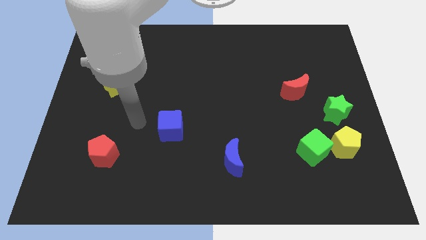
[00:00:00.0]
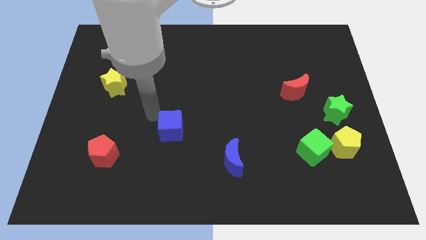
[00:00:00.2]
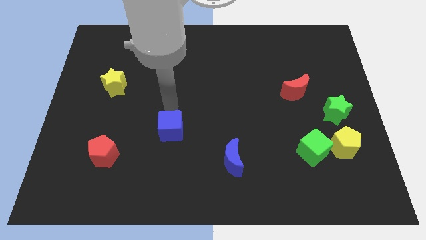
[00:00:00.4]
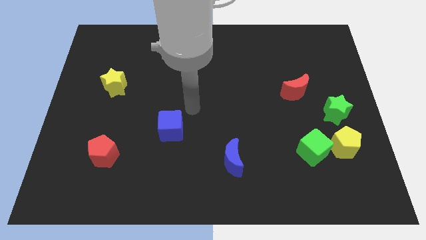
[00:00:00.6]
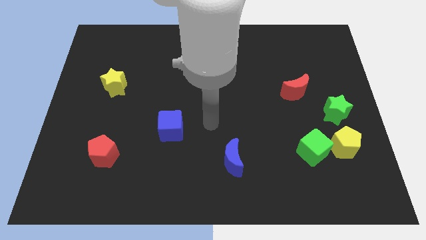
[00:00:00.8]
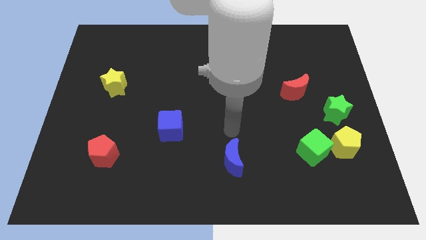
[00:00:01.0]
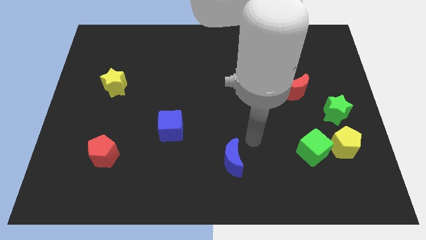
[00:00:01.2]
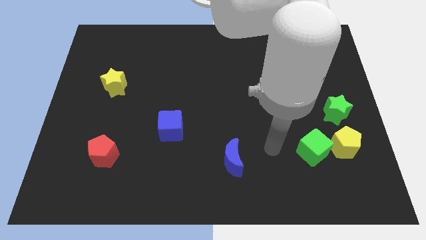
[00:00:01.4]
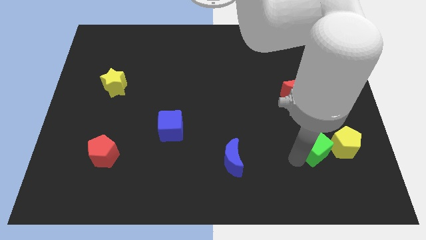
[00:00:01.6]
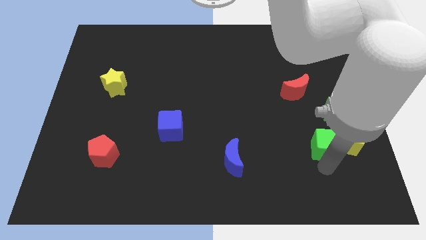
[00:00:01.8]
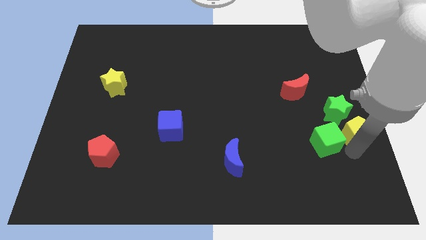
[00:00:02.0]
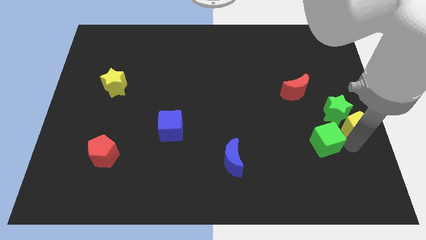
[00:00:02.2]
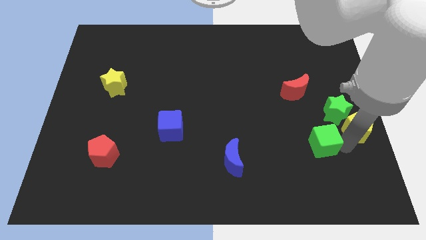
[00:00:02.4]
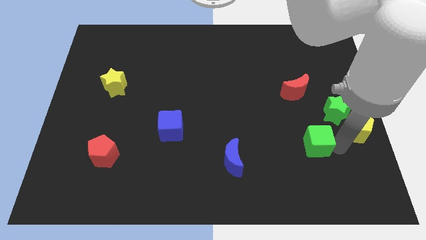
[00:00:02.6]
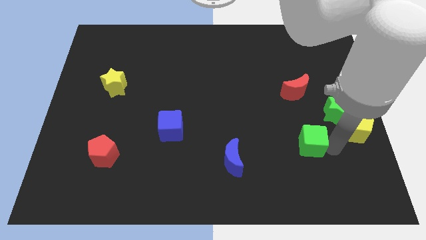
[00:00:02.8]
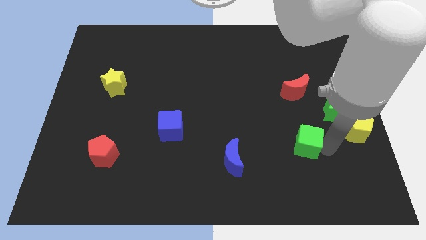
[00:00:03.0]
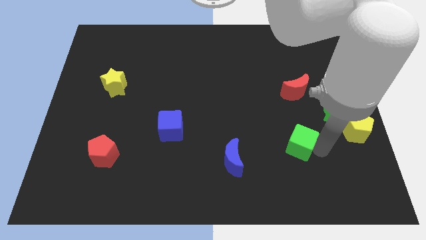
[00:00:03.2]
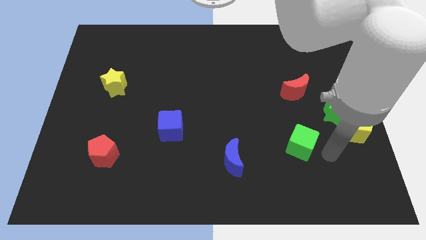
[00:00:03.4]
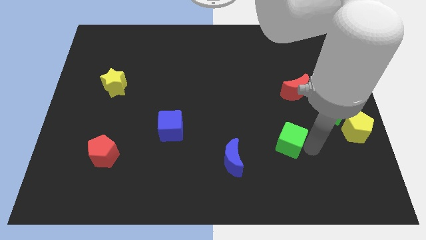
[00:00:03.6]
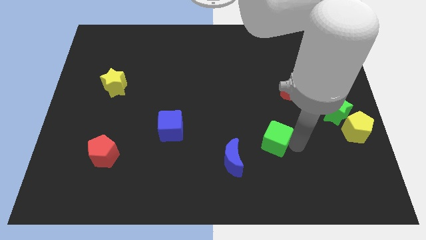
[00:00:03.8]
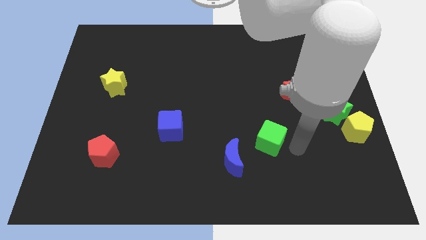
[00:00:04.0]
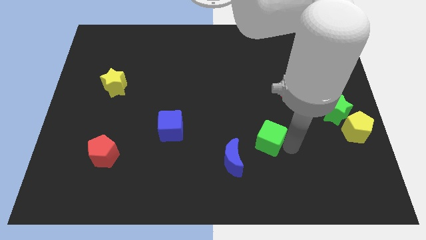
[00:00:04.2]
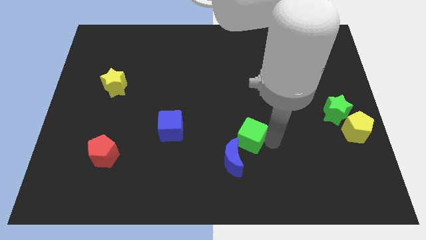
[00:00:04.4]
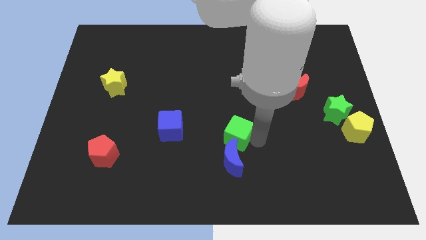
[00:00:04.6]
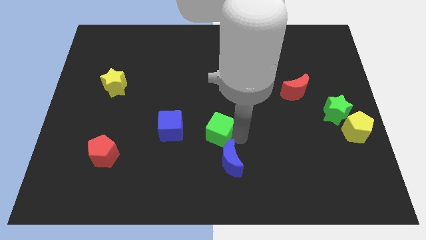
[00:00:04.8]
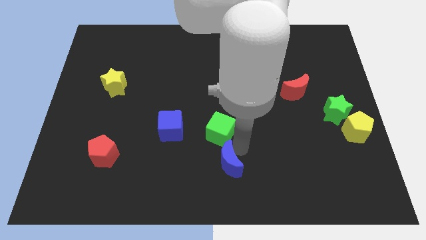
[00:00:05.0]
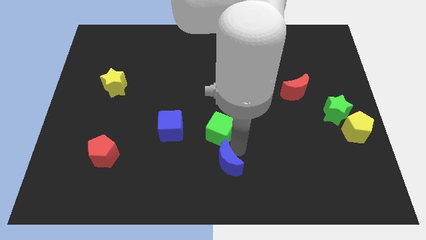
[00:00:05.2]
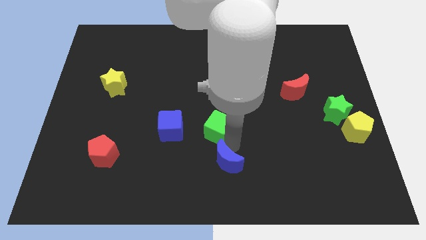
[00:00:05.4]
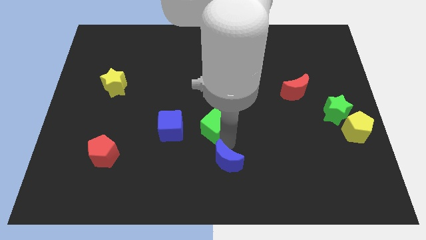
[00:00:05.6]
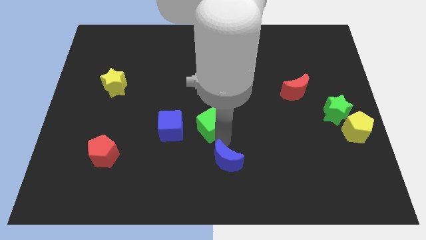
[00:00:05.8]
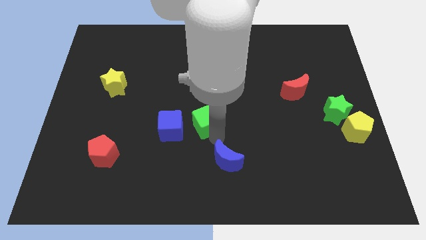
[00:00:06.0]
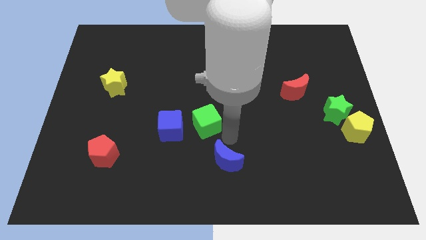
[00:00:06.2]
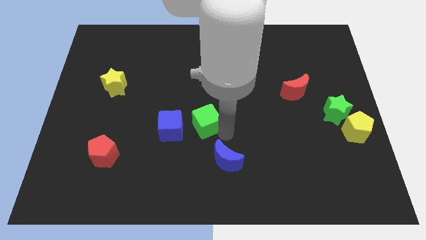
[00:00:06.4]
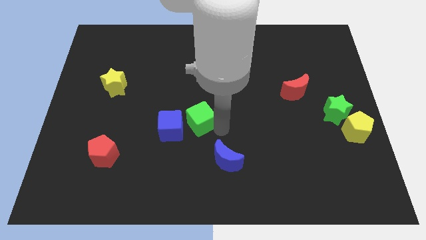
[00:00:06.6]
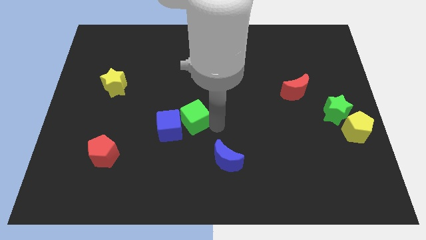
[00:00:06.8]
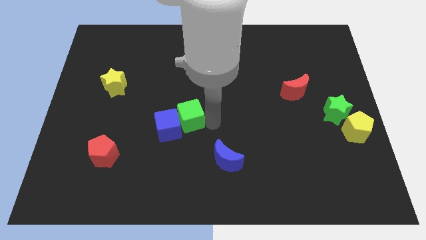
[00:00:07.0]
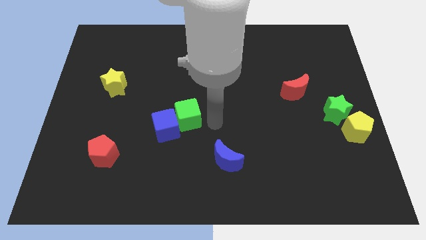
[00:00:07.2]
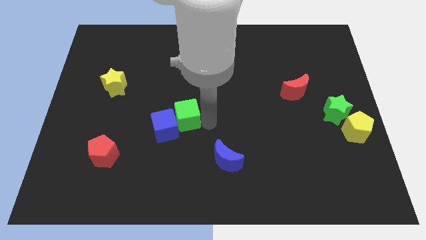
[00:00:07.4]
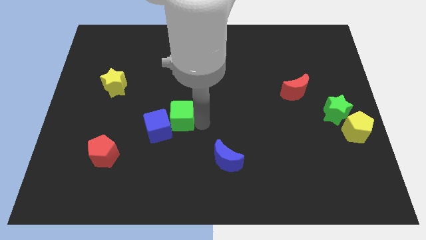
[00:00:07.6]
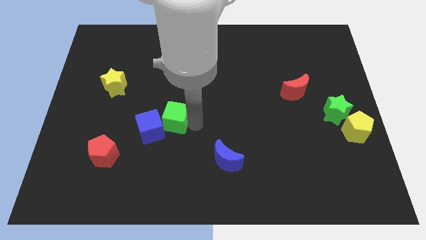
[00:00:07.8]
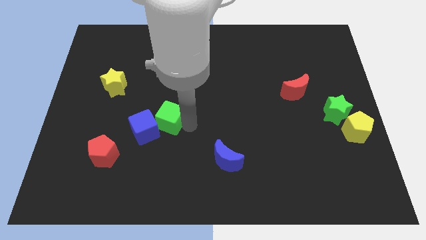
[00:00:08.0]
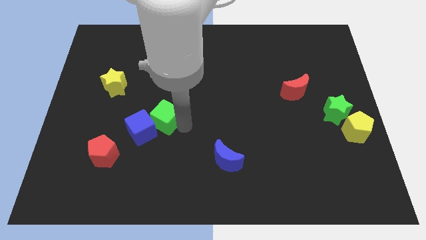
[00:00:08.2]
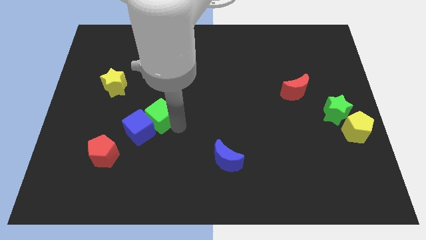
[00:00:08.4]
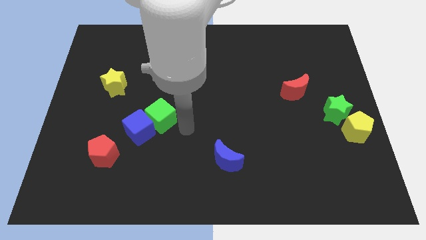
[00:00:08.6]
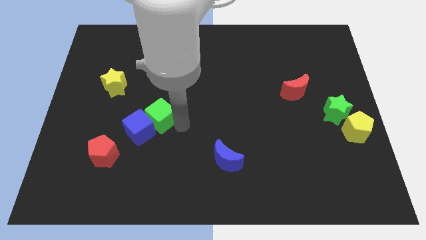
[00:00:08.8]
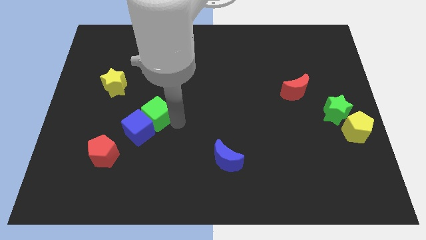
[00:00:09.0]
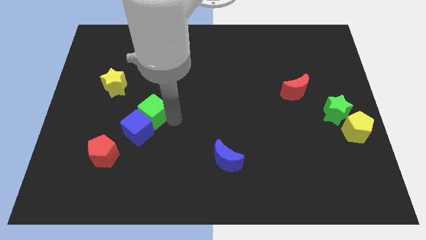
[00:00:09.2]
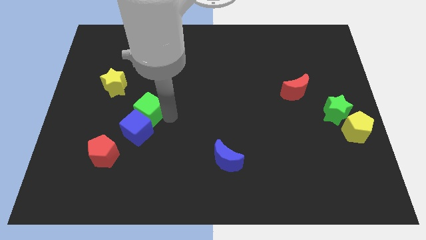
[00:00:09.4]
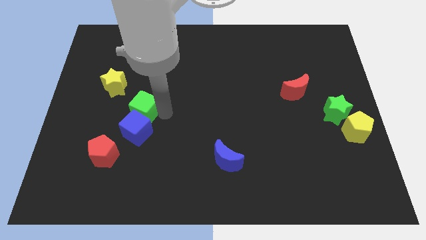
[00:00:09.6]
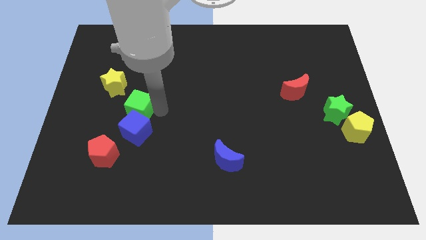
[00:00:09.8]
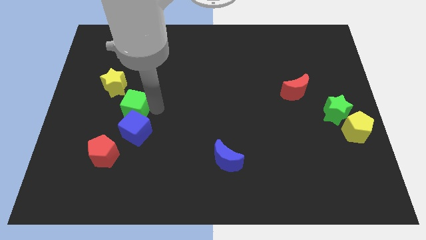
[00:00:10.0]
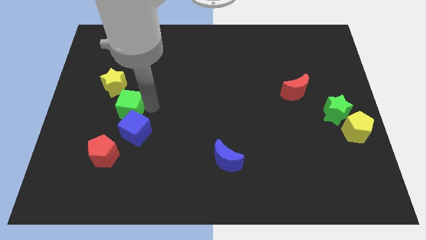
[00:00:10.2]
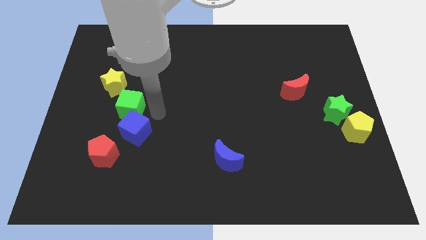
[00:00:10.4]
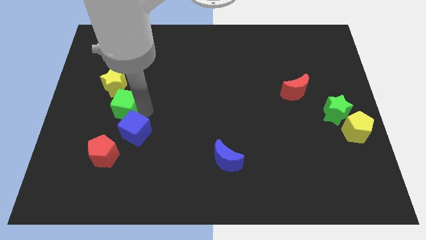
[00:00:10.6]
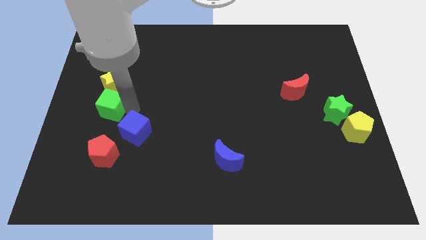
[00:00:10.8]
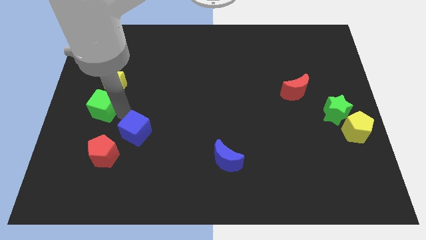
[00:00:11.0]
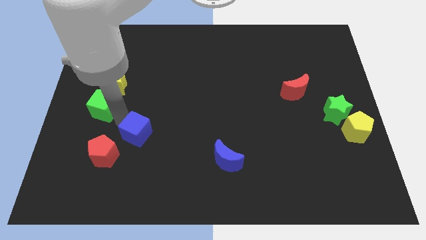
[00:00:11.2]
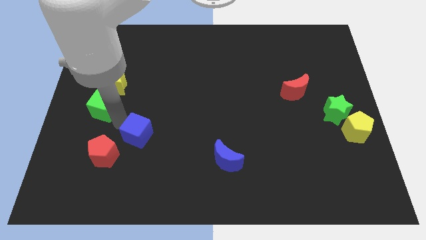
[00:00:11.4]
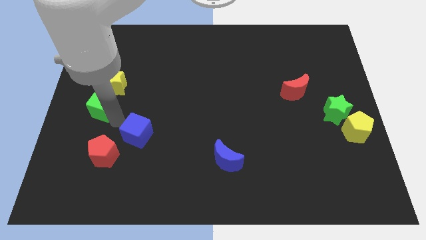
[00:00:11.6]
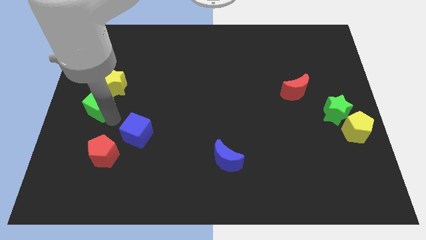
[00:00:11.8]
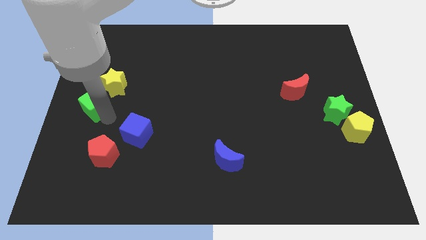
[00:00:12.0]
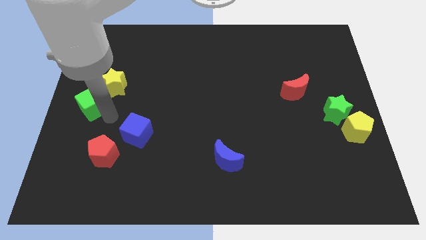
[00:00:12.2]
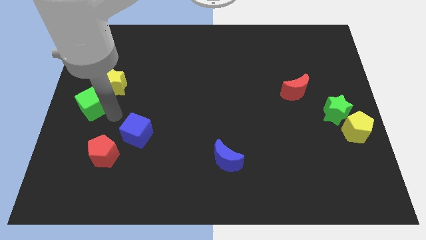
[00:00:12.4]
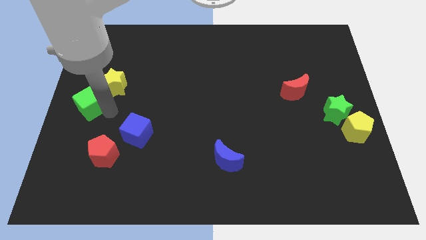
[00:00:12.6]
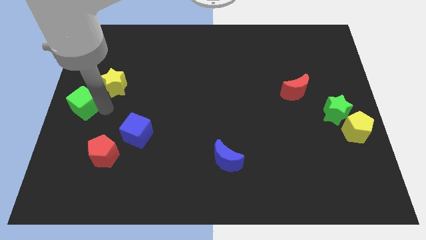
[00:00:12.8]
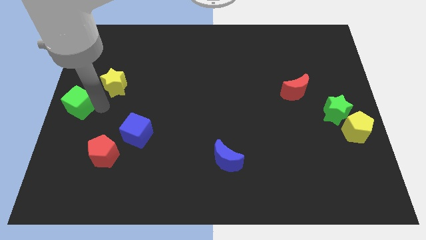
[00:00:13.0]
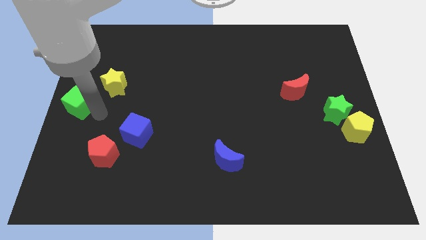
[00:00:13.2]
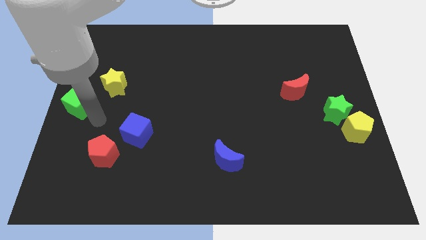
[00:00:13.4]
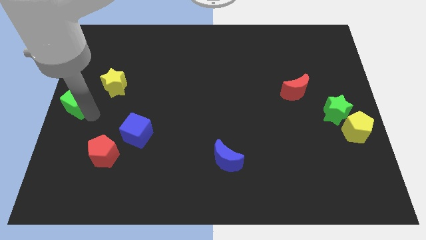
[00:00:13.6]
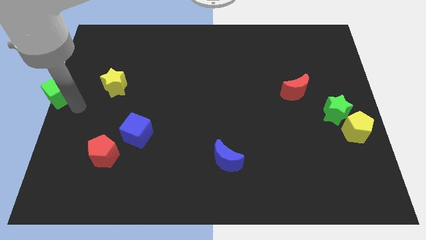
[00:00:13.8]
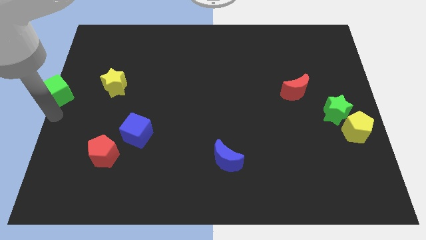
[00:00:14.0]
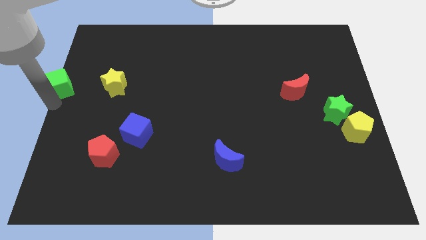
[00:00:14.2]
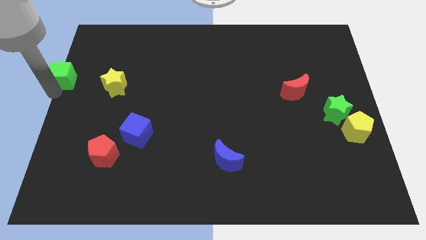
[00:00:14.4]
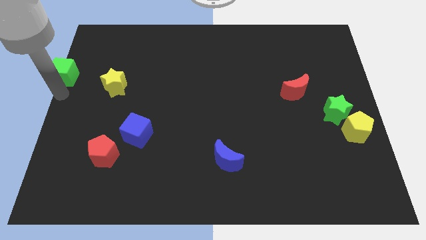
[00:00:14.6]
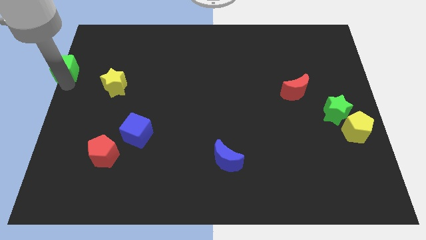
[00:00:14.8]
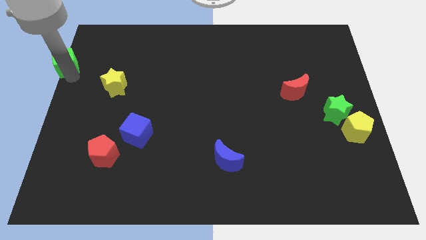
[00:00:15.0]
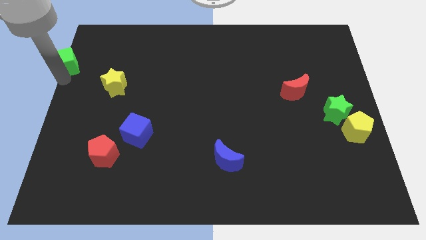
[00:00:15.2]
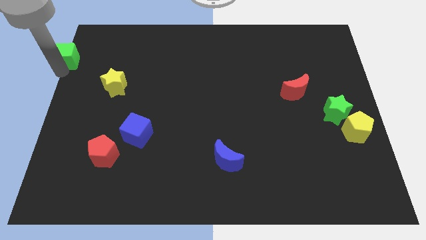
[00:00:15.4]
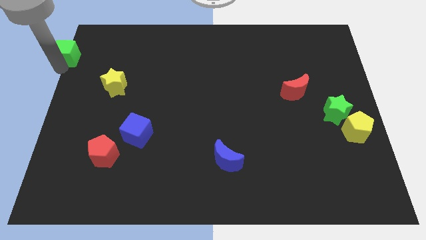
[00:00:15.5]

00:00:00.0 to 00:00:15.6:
put the green cube to the top left of the board
